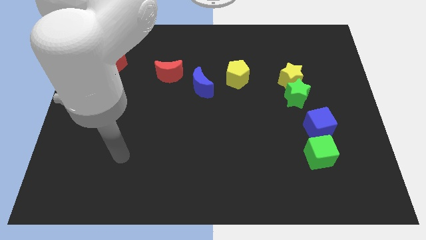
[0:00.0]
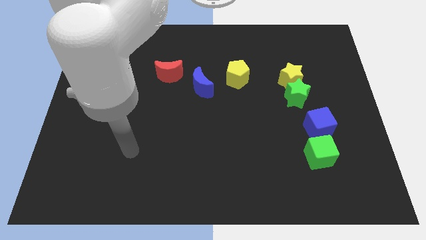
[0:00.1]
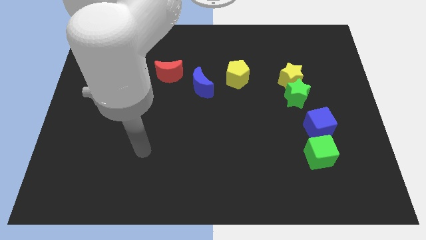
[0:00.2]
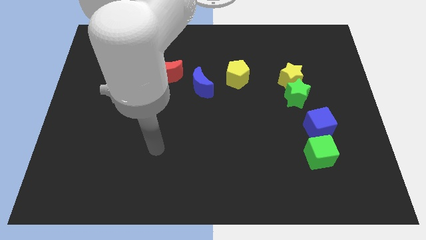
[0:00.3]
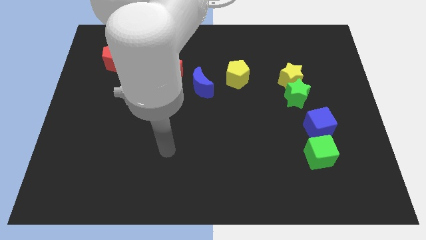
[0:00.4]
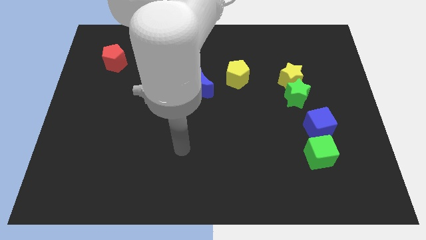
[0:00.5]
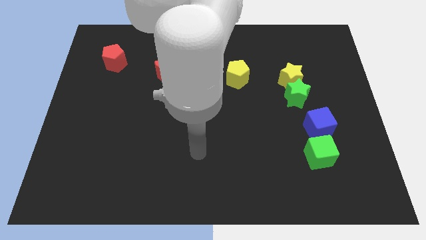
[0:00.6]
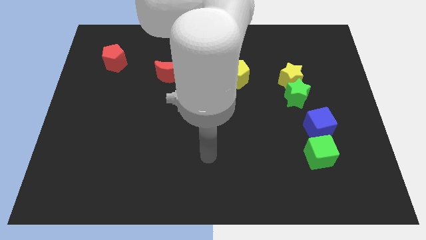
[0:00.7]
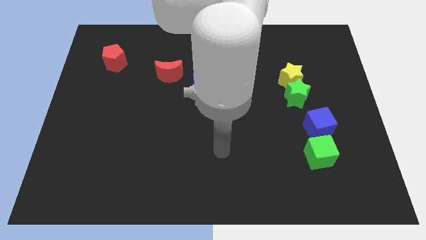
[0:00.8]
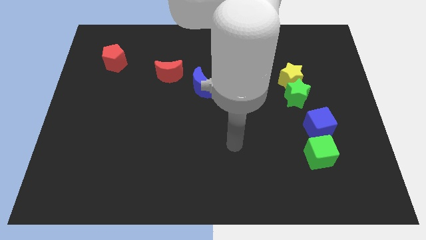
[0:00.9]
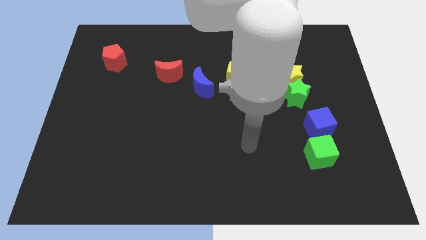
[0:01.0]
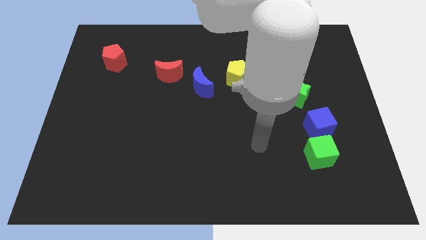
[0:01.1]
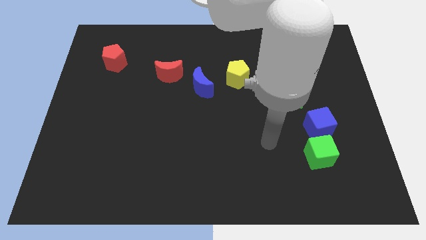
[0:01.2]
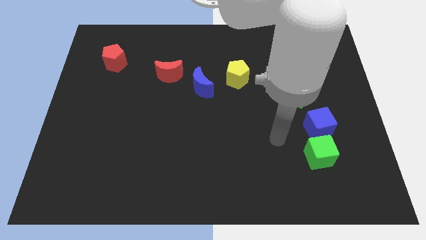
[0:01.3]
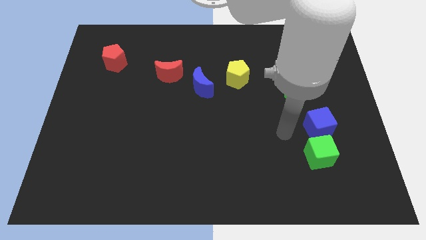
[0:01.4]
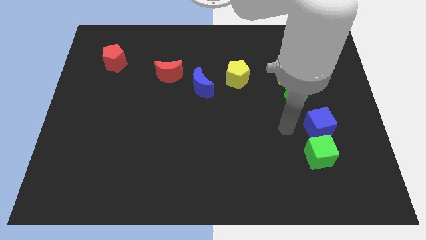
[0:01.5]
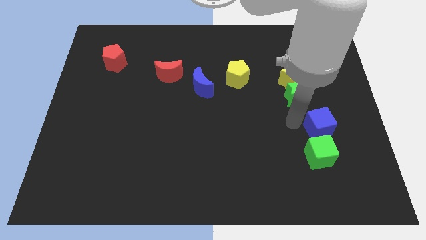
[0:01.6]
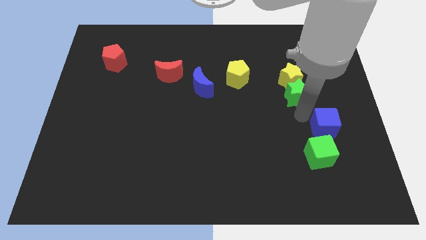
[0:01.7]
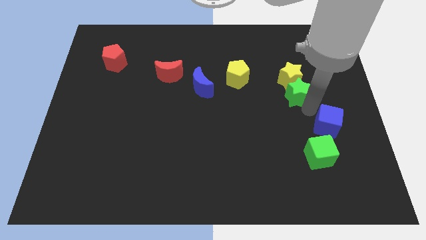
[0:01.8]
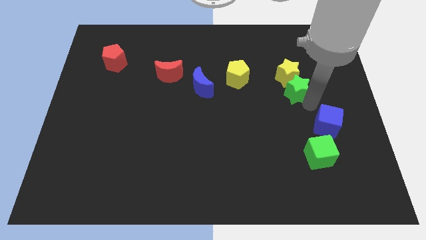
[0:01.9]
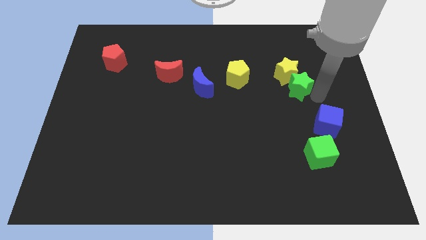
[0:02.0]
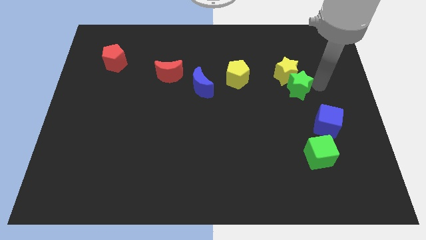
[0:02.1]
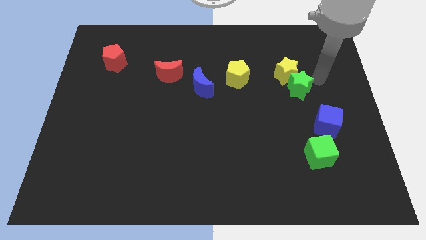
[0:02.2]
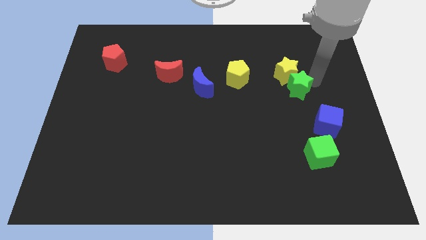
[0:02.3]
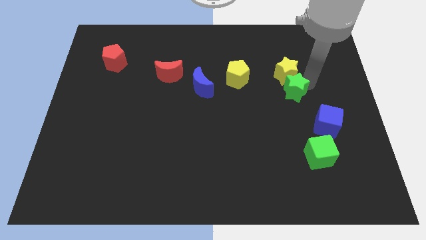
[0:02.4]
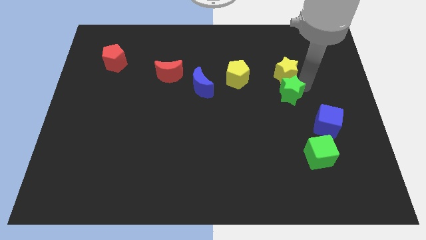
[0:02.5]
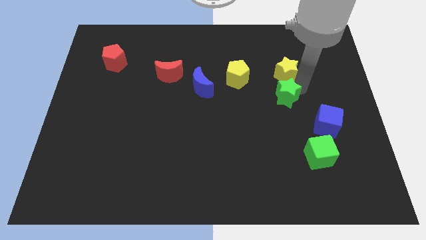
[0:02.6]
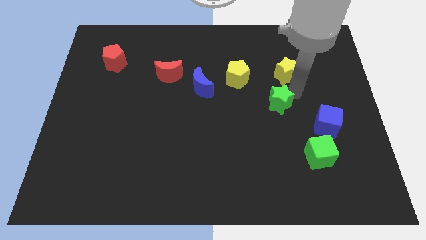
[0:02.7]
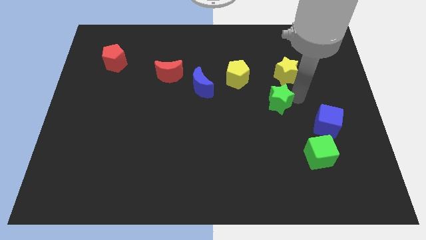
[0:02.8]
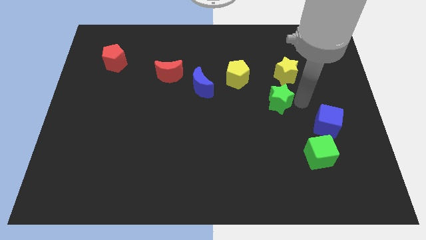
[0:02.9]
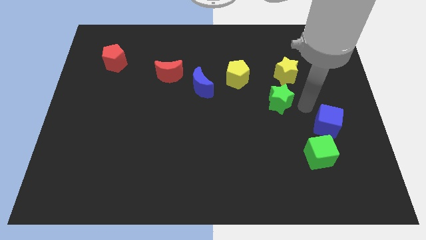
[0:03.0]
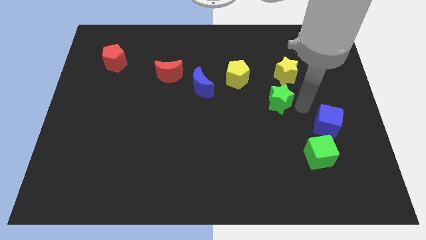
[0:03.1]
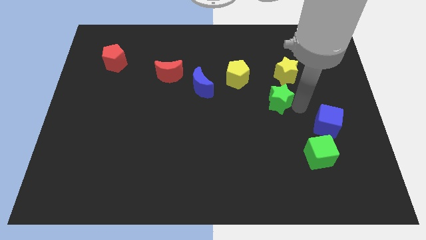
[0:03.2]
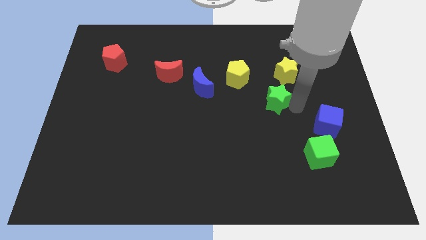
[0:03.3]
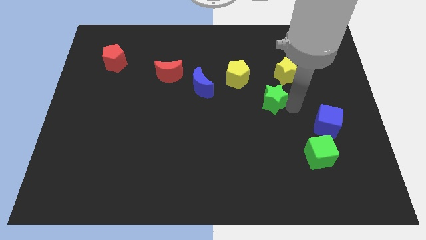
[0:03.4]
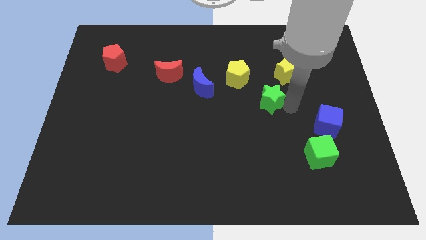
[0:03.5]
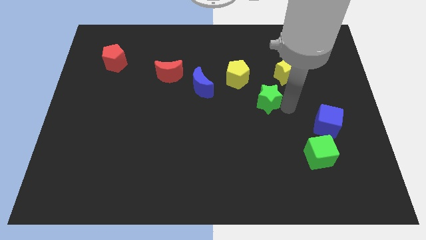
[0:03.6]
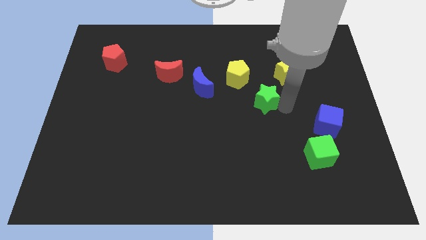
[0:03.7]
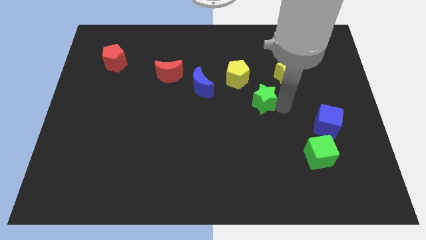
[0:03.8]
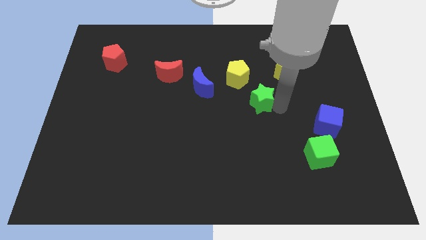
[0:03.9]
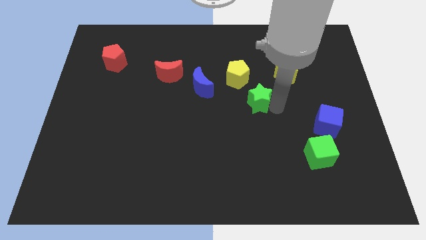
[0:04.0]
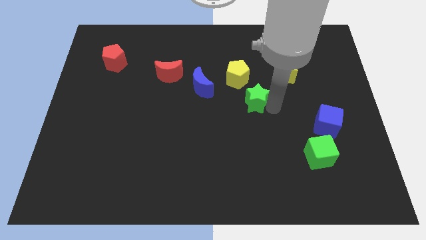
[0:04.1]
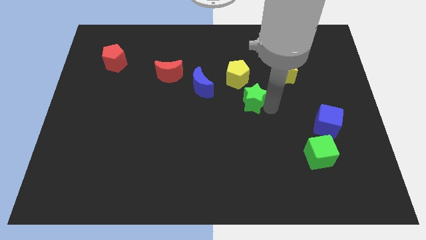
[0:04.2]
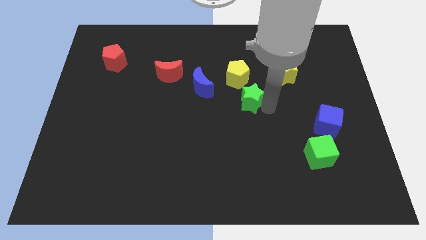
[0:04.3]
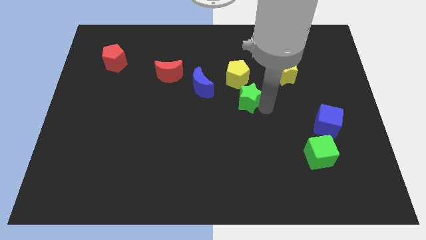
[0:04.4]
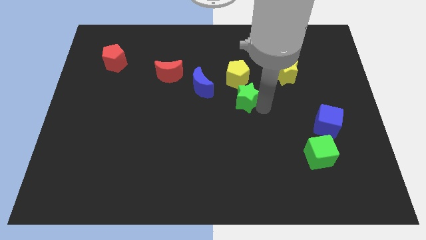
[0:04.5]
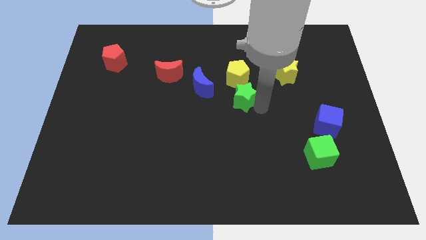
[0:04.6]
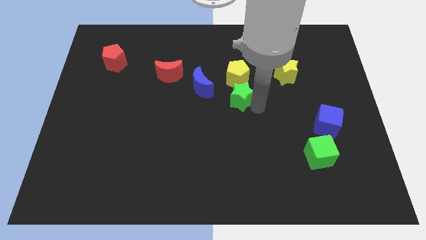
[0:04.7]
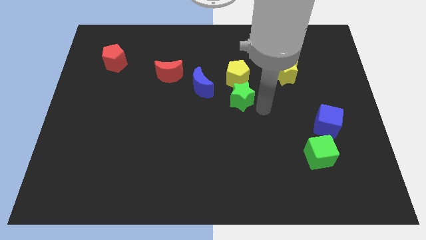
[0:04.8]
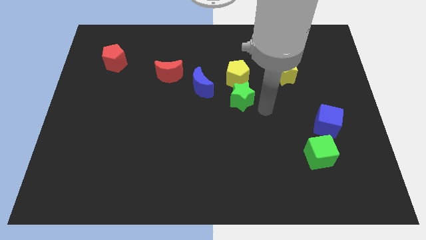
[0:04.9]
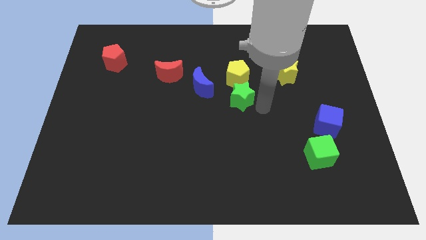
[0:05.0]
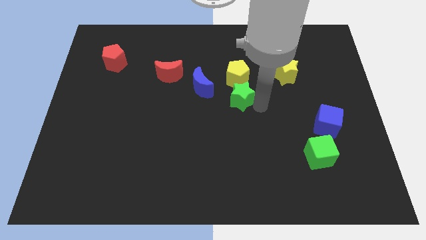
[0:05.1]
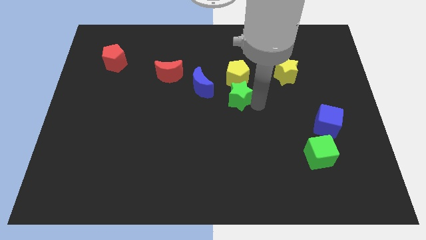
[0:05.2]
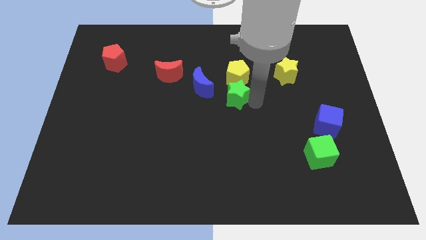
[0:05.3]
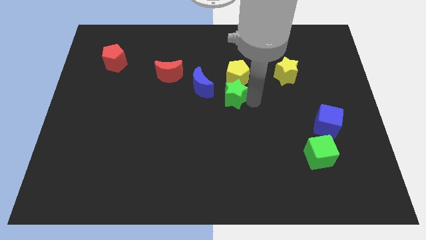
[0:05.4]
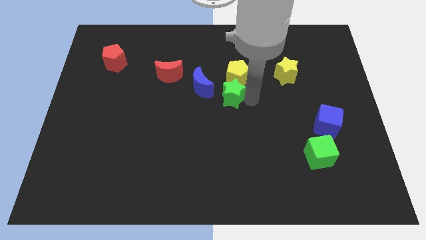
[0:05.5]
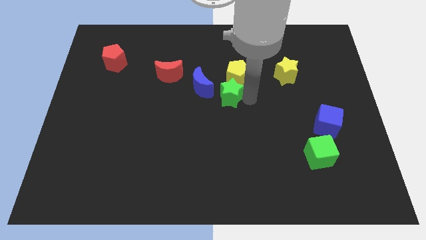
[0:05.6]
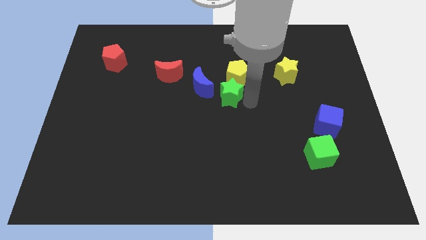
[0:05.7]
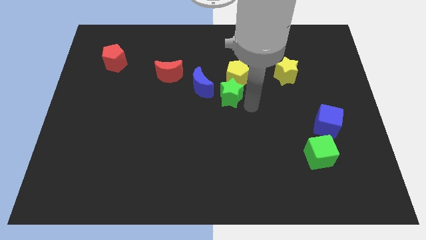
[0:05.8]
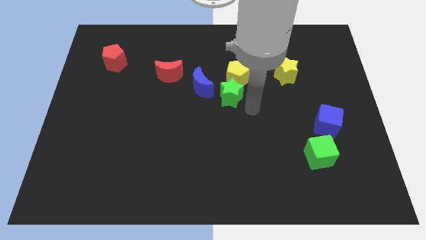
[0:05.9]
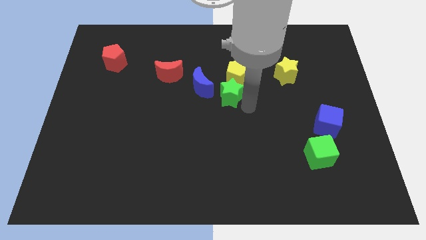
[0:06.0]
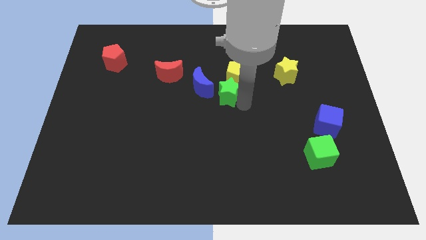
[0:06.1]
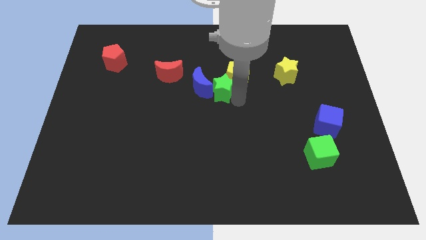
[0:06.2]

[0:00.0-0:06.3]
move the green star towards the blue moon

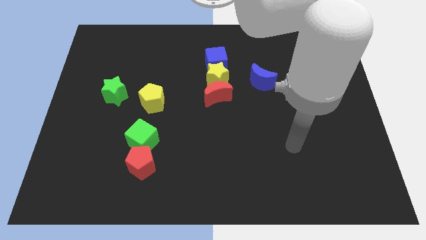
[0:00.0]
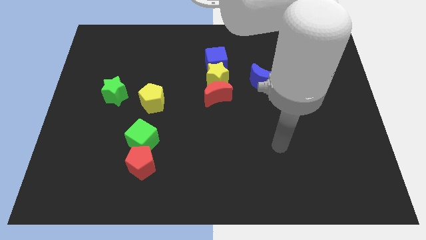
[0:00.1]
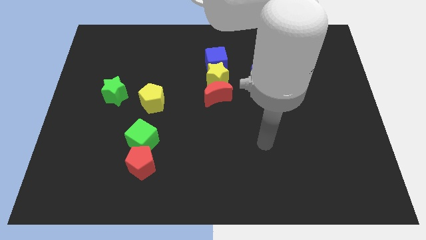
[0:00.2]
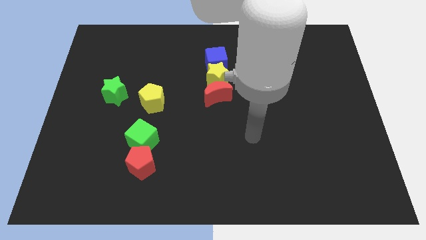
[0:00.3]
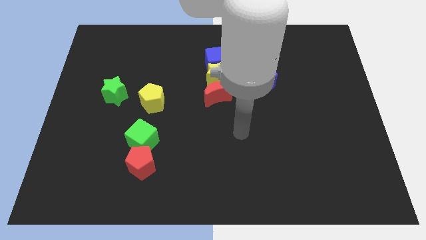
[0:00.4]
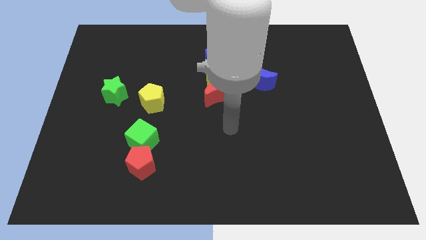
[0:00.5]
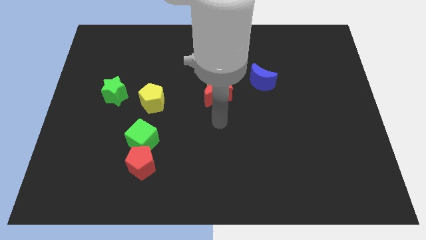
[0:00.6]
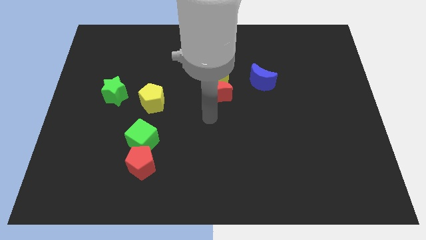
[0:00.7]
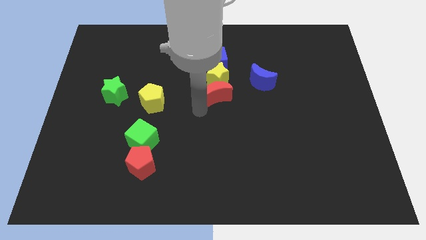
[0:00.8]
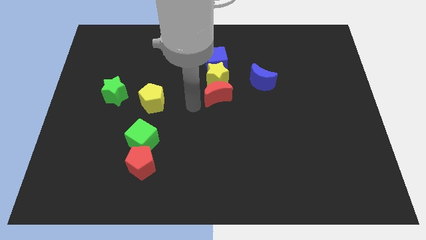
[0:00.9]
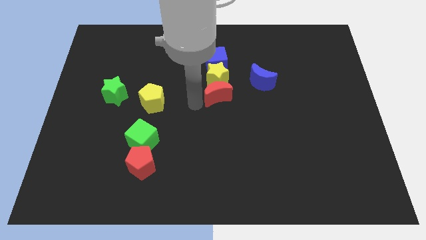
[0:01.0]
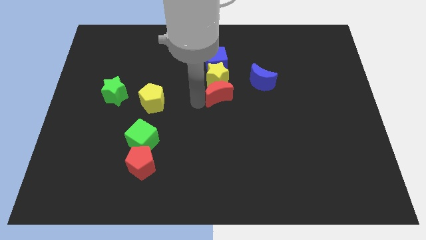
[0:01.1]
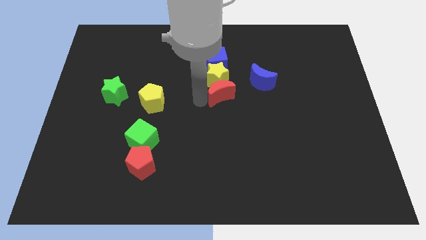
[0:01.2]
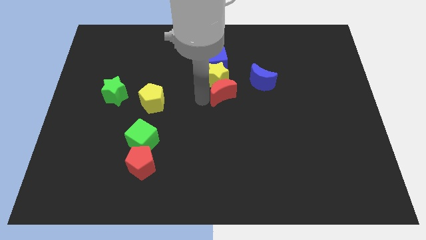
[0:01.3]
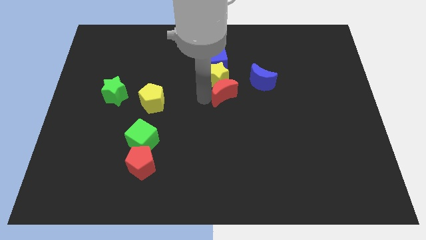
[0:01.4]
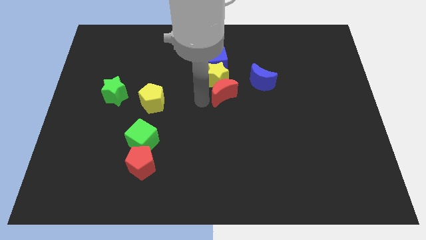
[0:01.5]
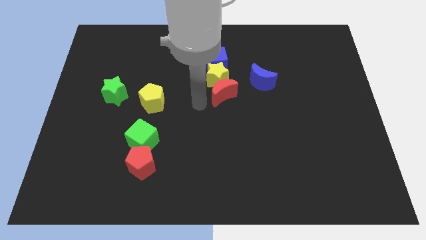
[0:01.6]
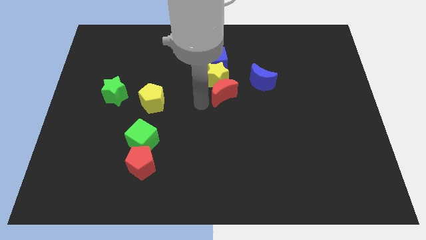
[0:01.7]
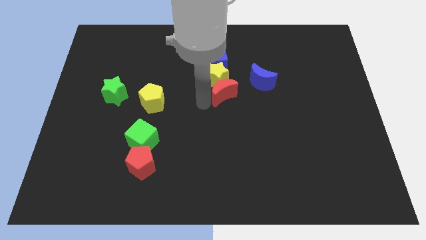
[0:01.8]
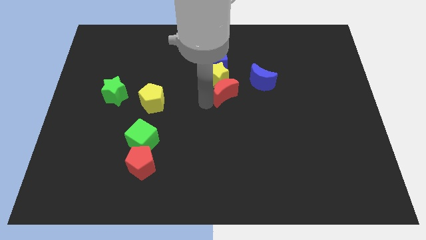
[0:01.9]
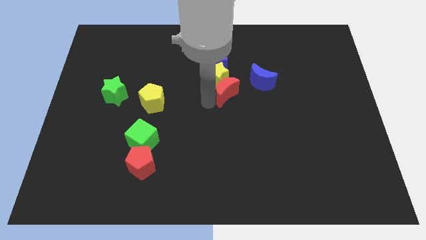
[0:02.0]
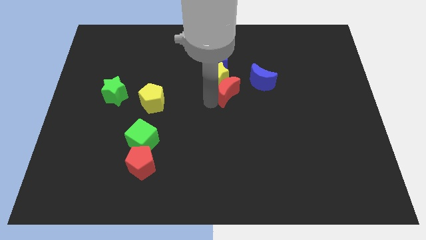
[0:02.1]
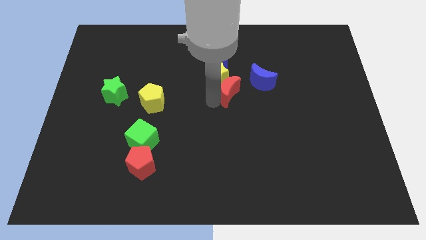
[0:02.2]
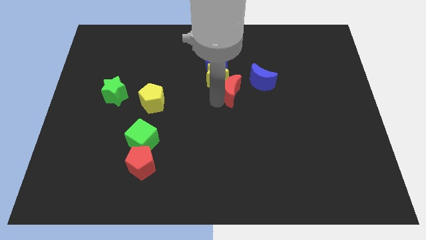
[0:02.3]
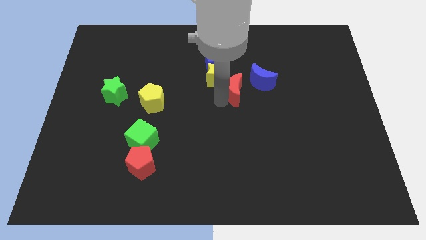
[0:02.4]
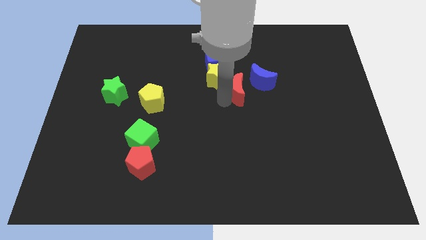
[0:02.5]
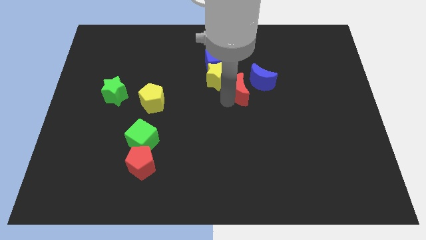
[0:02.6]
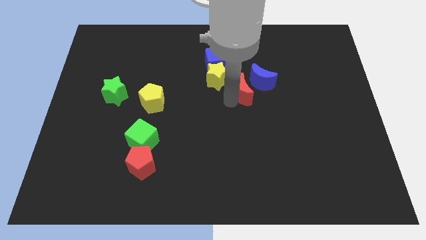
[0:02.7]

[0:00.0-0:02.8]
slide the red moon towards the blue moon
